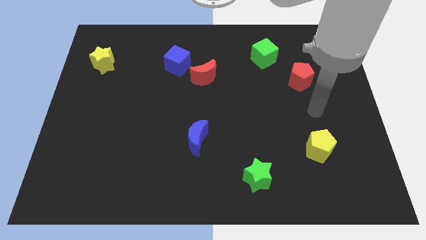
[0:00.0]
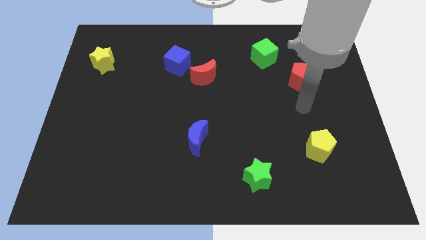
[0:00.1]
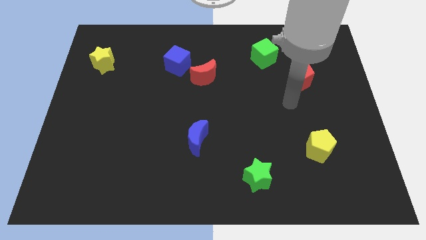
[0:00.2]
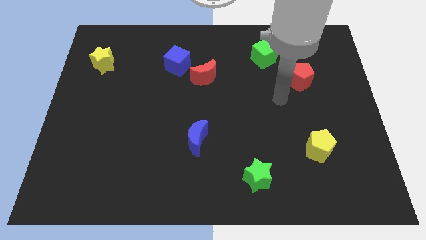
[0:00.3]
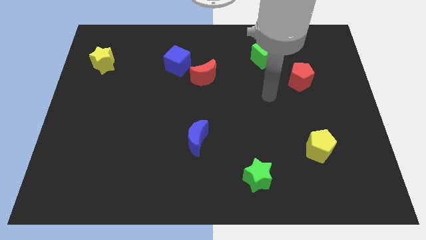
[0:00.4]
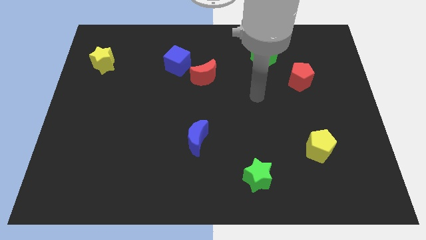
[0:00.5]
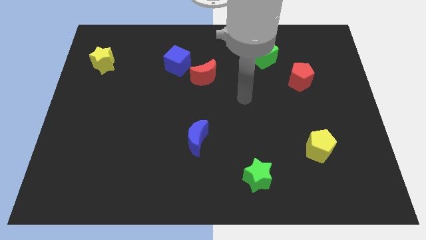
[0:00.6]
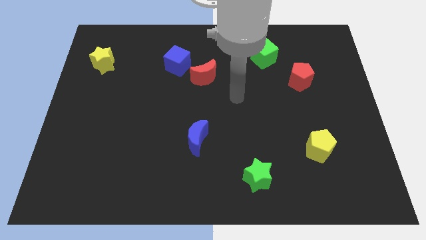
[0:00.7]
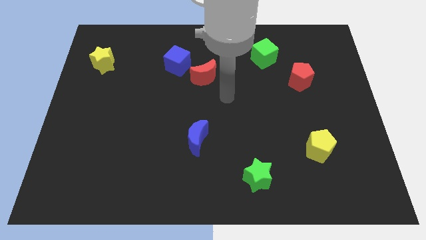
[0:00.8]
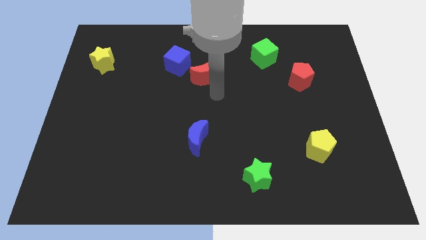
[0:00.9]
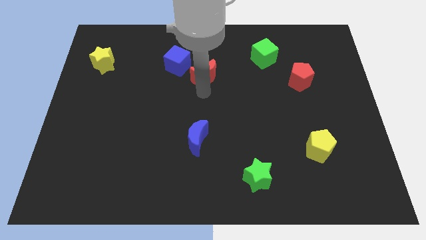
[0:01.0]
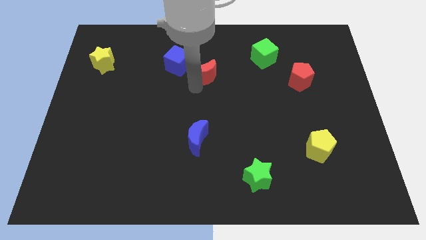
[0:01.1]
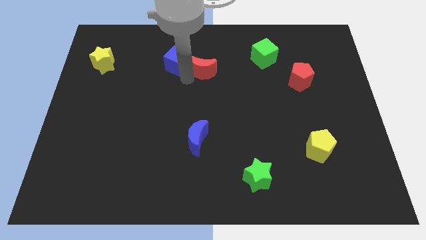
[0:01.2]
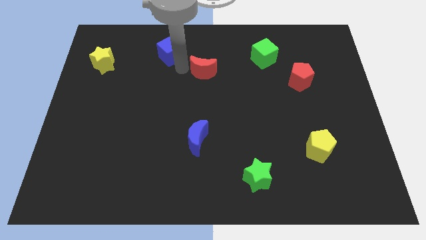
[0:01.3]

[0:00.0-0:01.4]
move the red moon away from the blue cube

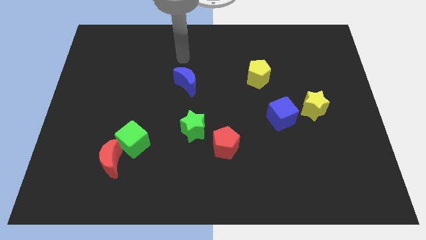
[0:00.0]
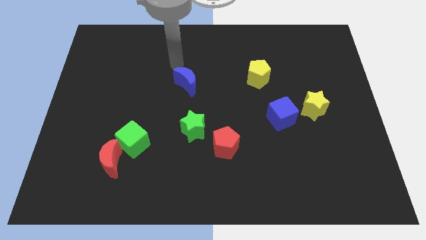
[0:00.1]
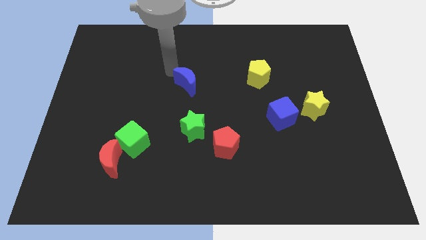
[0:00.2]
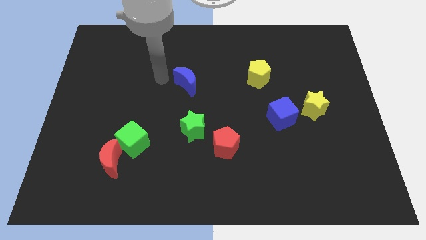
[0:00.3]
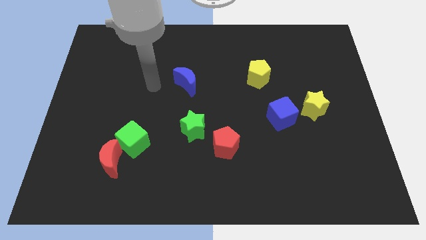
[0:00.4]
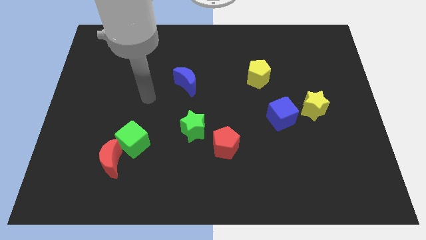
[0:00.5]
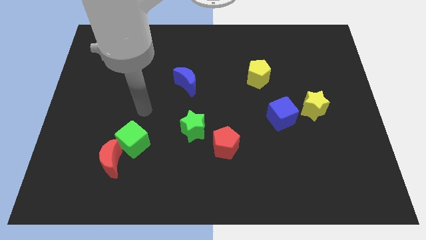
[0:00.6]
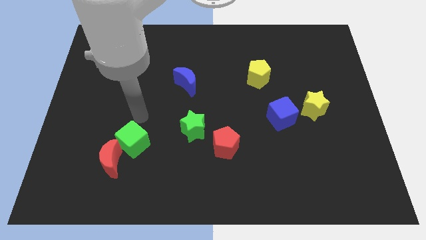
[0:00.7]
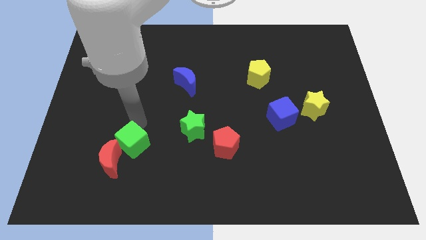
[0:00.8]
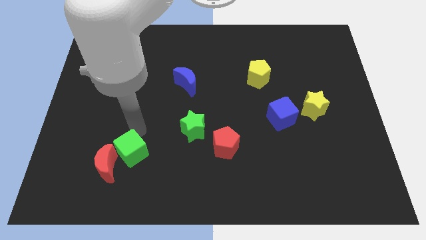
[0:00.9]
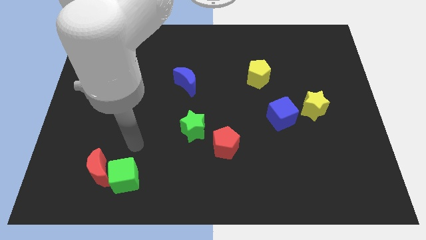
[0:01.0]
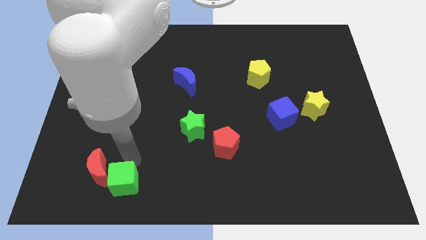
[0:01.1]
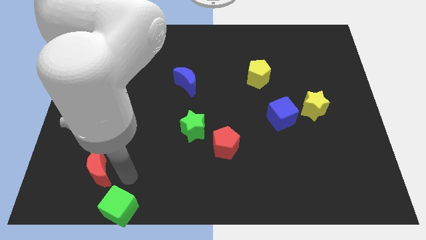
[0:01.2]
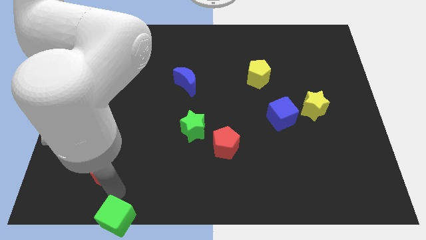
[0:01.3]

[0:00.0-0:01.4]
move the red moon away from the green cube

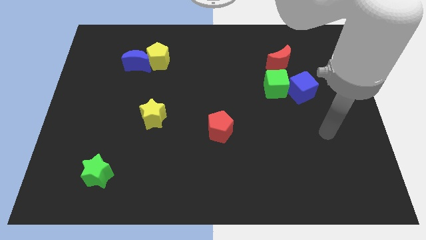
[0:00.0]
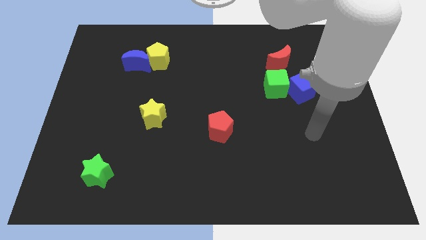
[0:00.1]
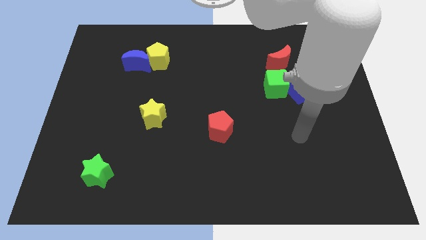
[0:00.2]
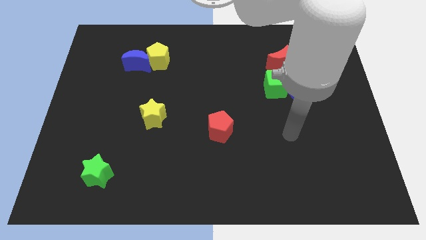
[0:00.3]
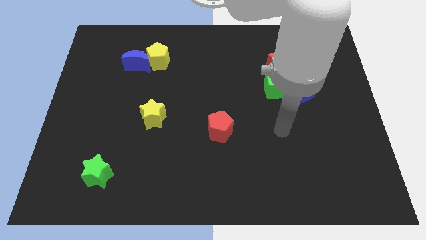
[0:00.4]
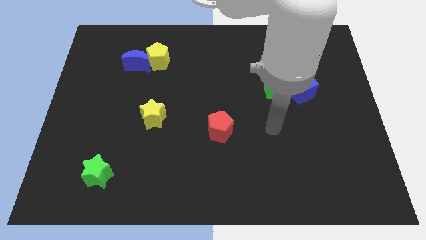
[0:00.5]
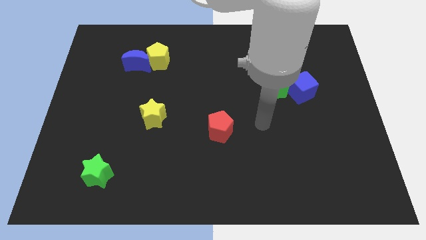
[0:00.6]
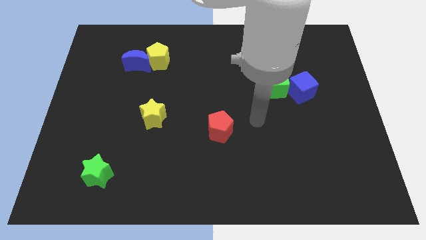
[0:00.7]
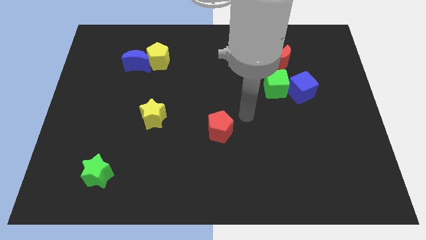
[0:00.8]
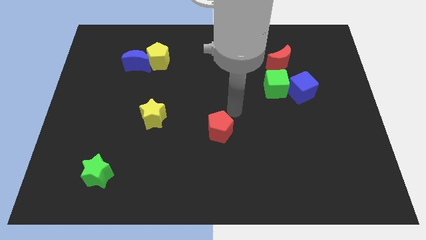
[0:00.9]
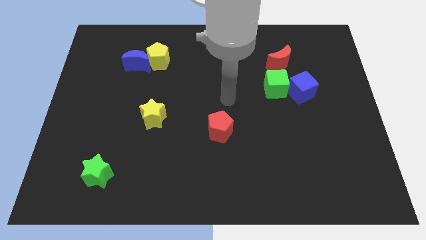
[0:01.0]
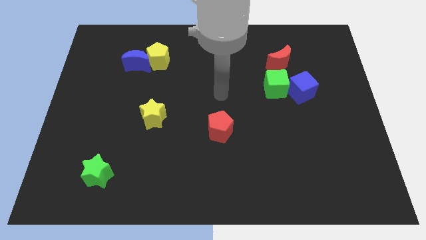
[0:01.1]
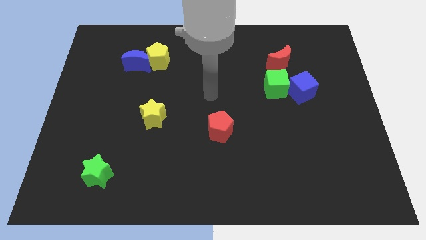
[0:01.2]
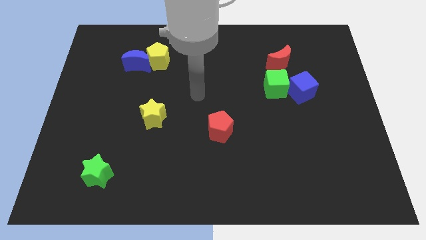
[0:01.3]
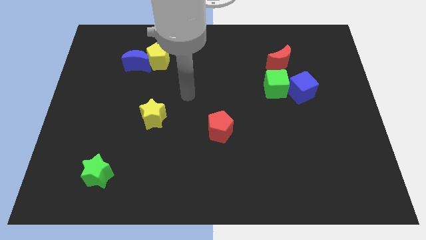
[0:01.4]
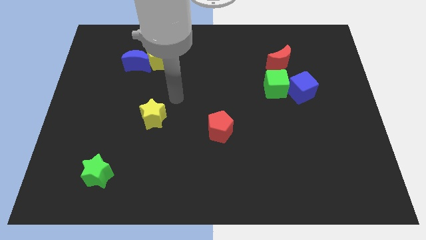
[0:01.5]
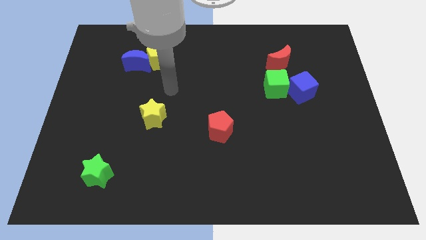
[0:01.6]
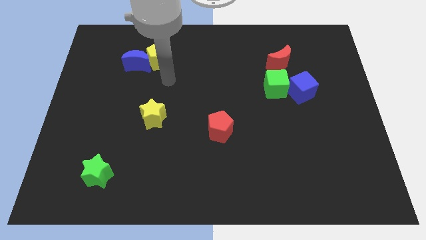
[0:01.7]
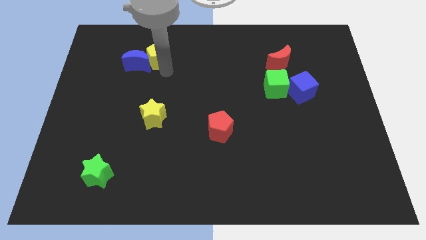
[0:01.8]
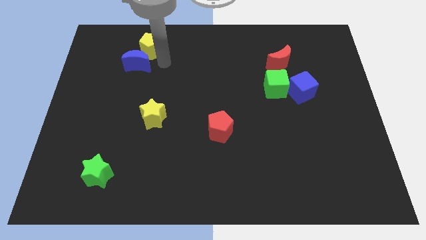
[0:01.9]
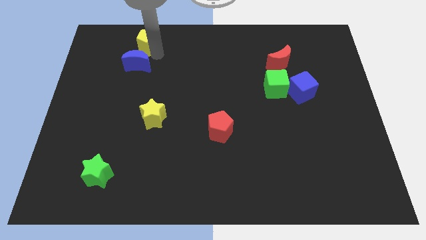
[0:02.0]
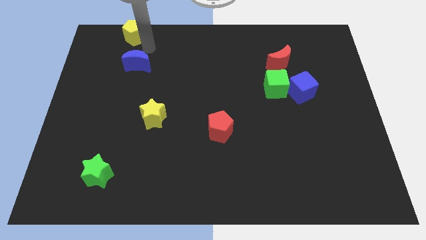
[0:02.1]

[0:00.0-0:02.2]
pull the blue moon apart from the yellow pentagon

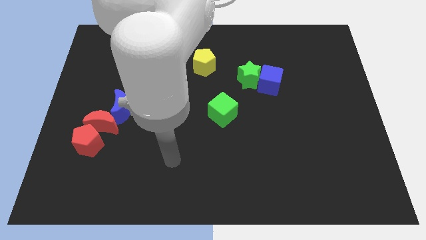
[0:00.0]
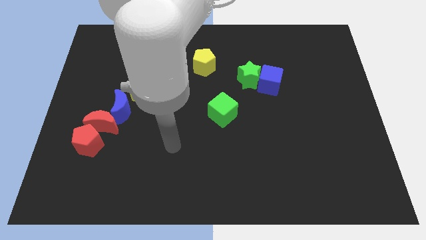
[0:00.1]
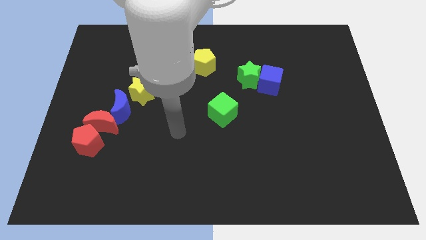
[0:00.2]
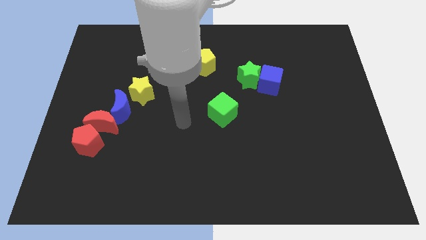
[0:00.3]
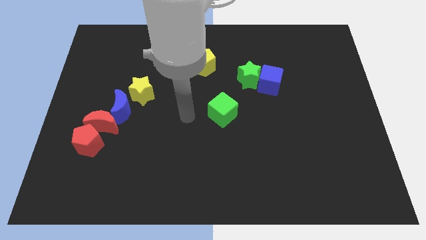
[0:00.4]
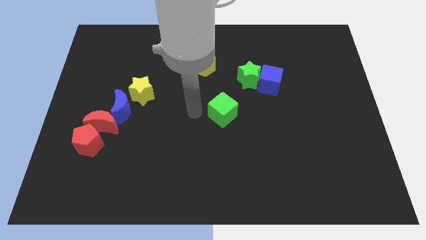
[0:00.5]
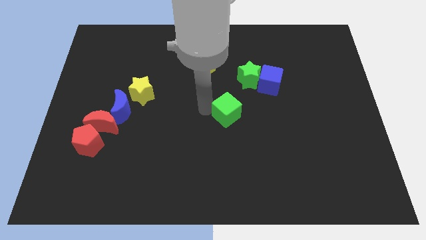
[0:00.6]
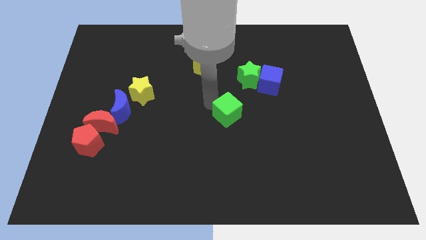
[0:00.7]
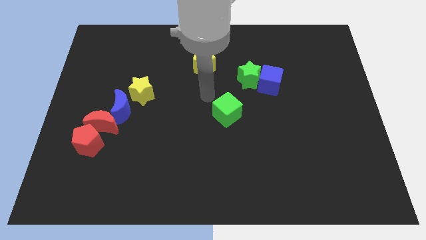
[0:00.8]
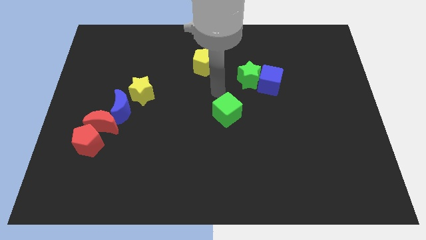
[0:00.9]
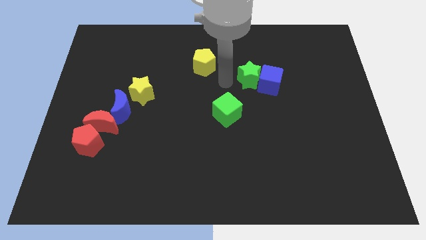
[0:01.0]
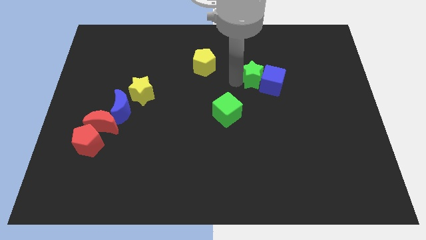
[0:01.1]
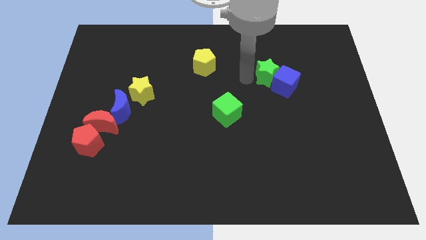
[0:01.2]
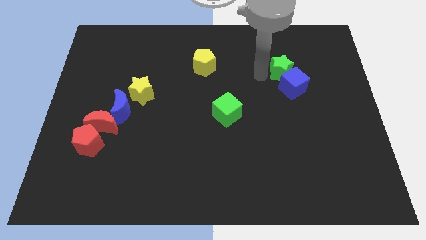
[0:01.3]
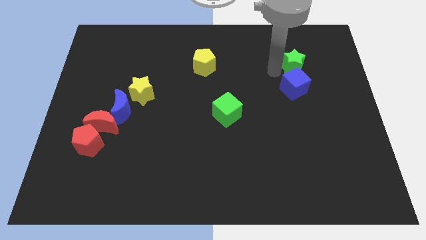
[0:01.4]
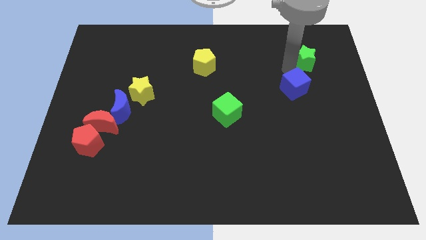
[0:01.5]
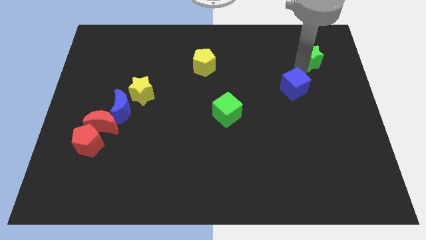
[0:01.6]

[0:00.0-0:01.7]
move the blue cube away from the green star

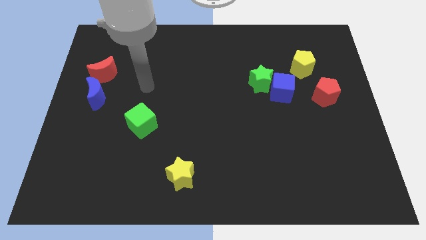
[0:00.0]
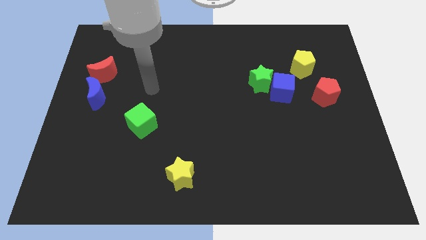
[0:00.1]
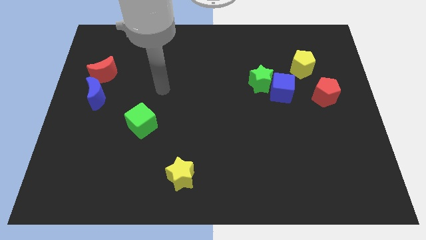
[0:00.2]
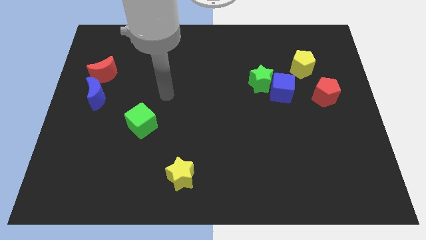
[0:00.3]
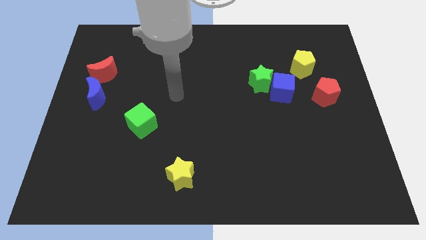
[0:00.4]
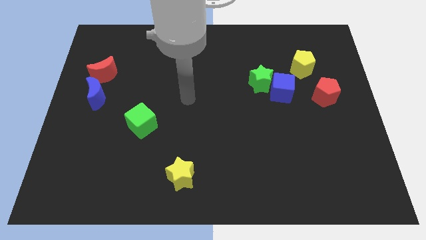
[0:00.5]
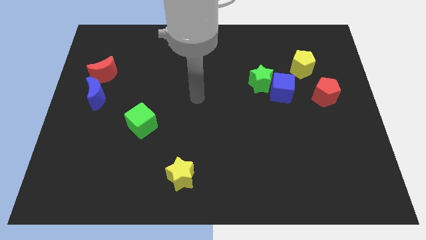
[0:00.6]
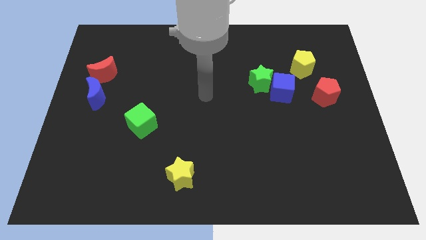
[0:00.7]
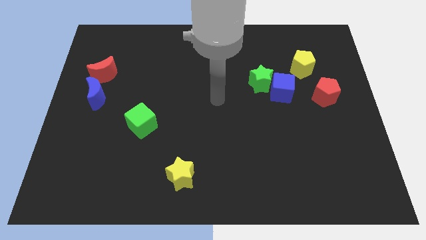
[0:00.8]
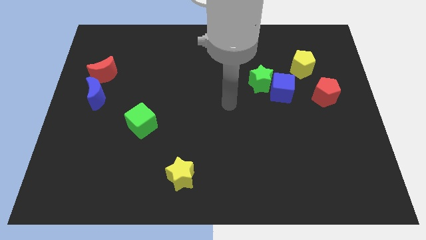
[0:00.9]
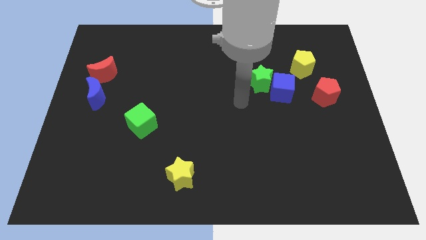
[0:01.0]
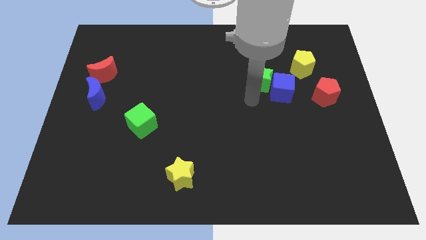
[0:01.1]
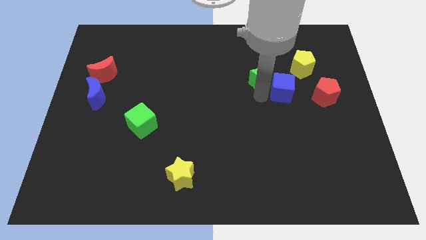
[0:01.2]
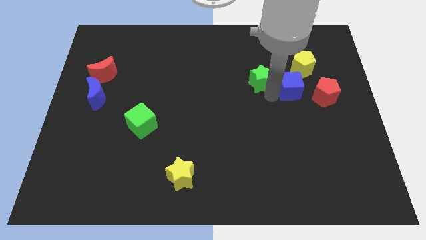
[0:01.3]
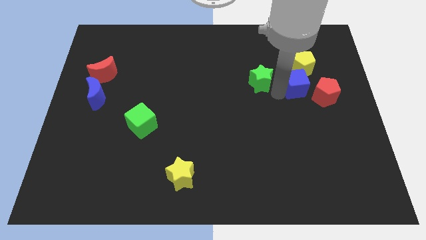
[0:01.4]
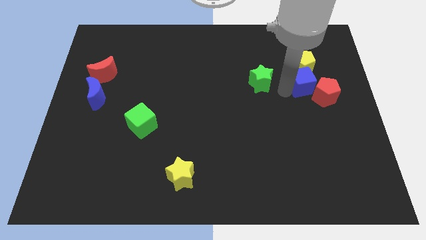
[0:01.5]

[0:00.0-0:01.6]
move the green star away from the blue cube

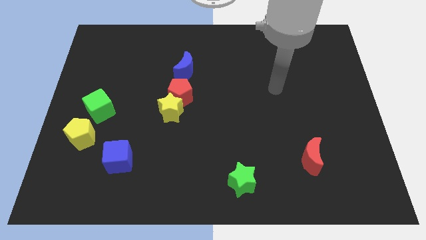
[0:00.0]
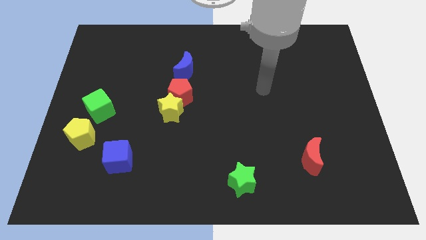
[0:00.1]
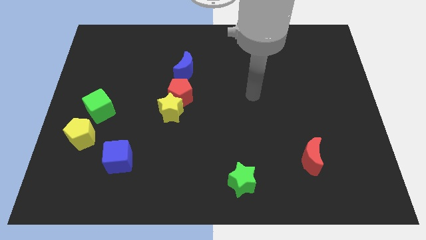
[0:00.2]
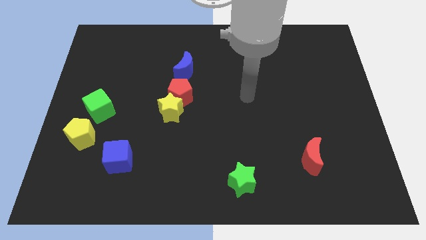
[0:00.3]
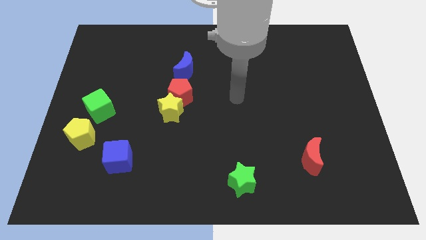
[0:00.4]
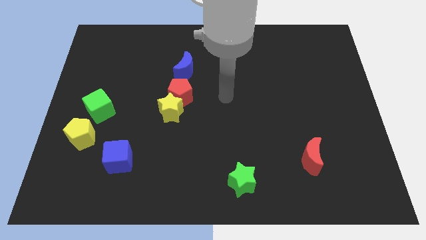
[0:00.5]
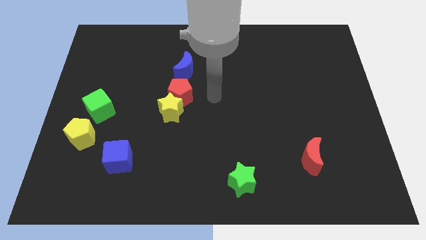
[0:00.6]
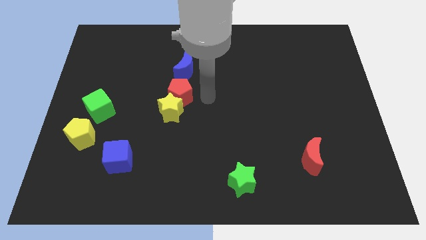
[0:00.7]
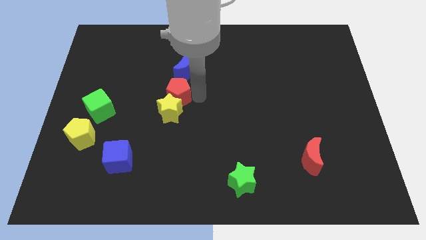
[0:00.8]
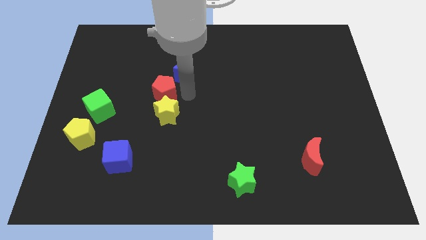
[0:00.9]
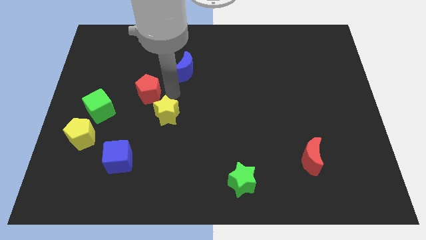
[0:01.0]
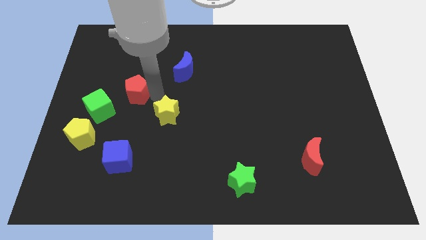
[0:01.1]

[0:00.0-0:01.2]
move the yellow star away from the red pentagon
